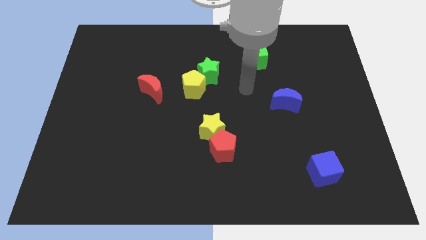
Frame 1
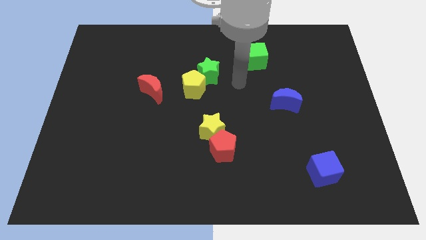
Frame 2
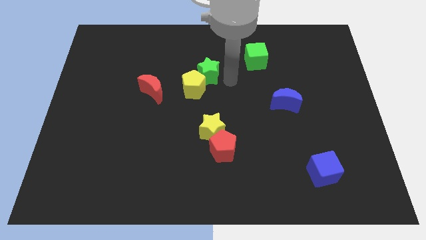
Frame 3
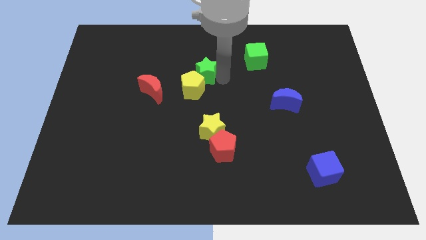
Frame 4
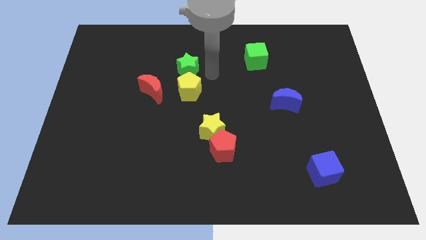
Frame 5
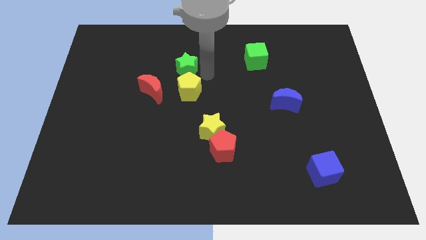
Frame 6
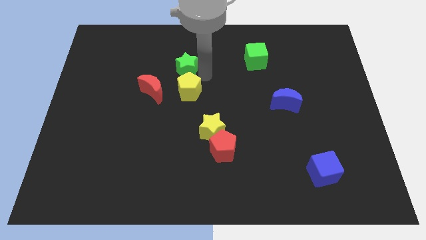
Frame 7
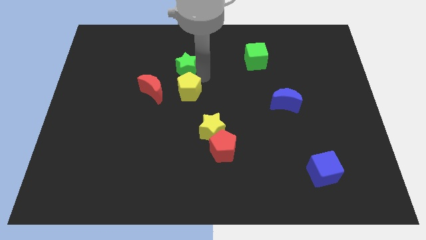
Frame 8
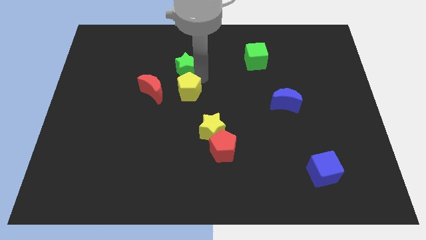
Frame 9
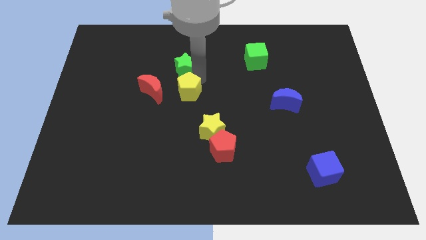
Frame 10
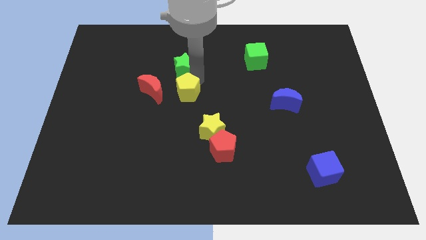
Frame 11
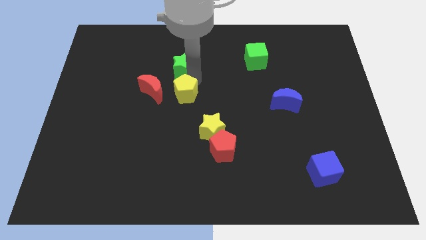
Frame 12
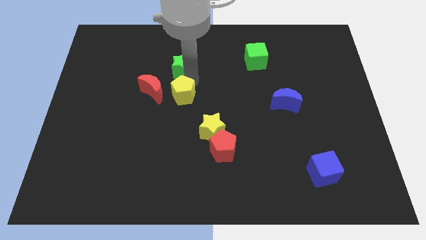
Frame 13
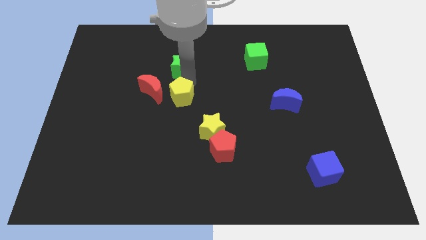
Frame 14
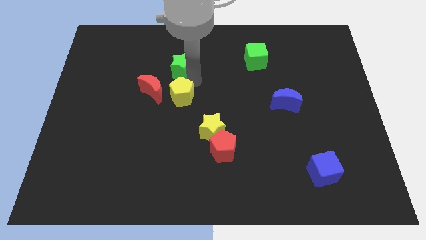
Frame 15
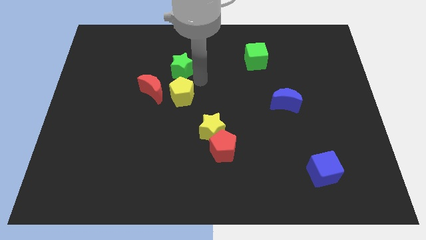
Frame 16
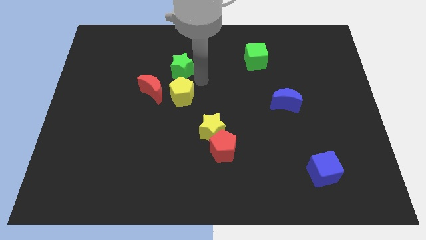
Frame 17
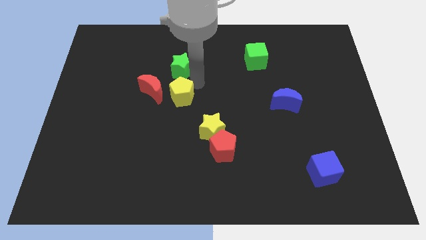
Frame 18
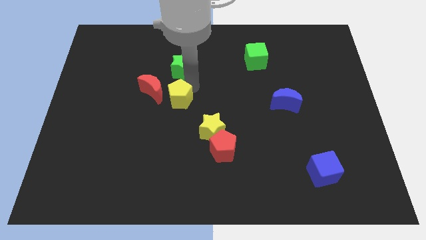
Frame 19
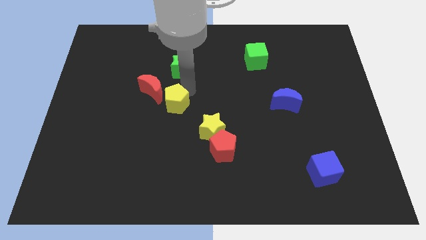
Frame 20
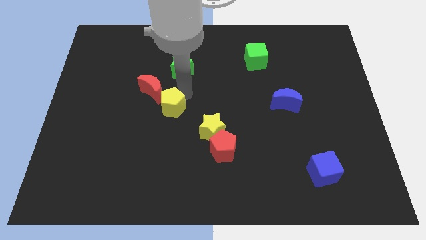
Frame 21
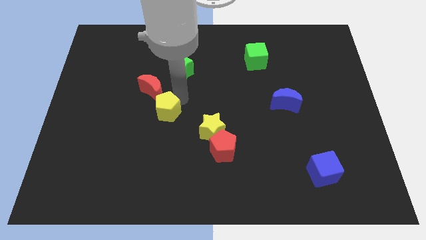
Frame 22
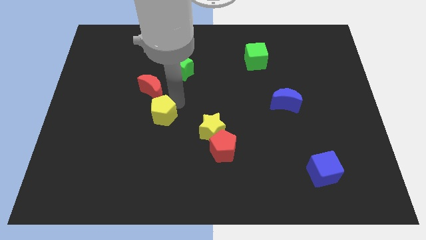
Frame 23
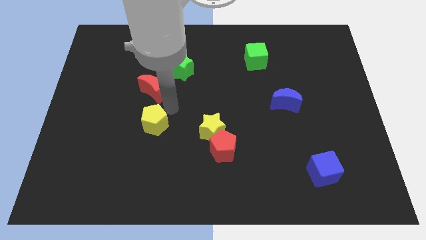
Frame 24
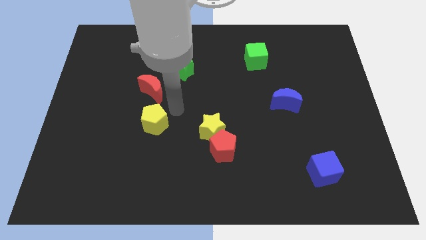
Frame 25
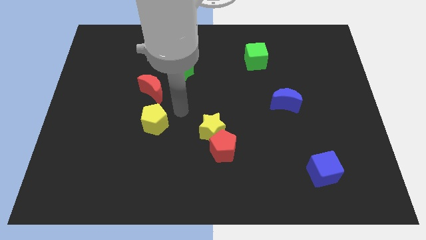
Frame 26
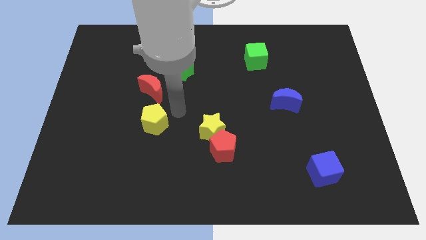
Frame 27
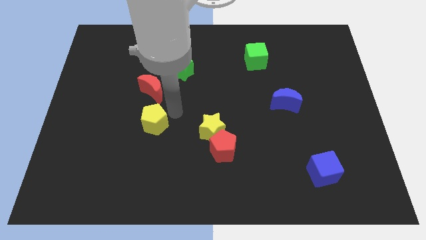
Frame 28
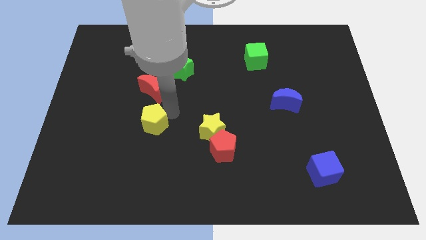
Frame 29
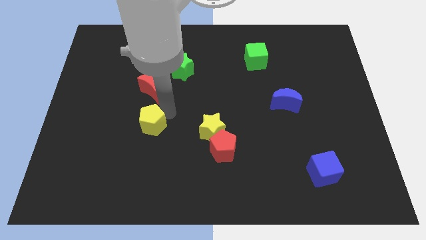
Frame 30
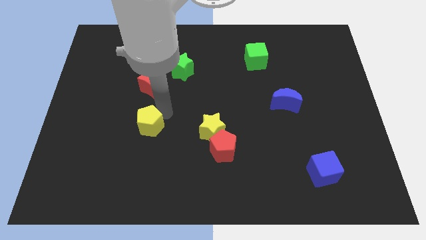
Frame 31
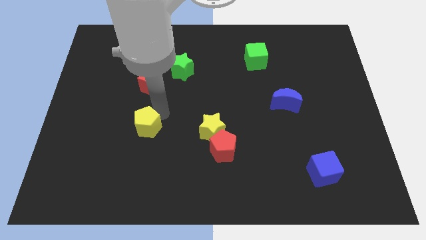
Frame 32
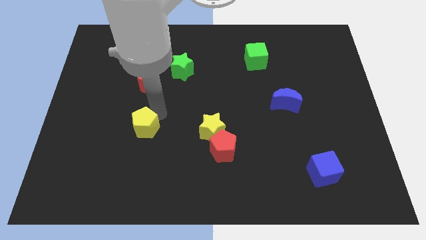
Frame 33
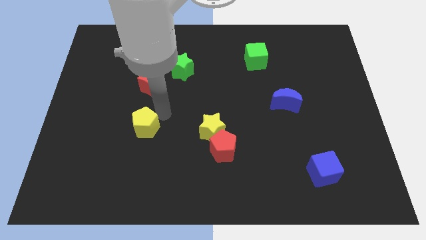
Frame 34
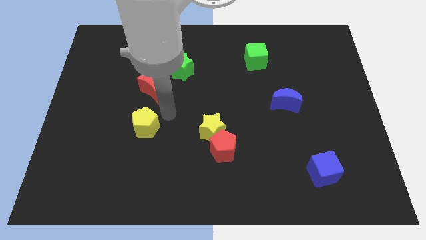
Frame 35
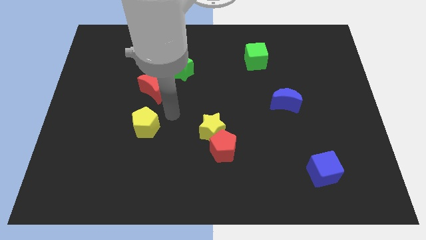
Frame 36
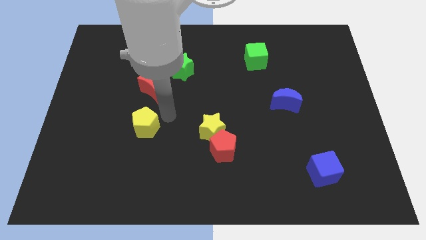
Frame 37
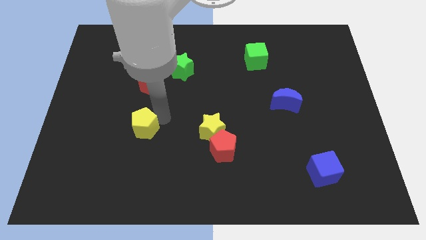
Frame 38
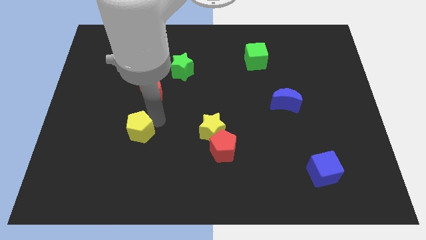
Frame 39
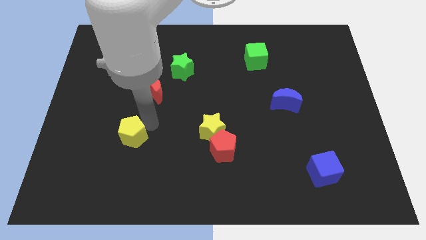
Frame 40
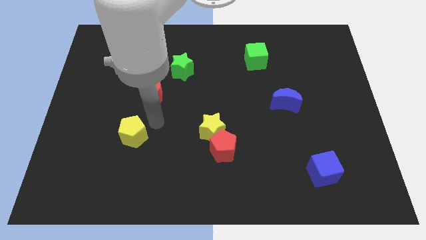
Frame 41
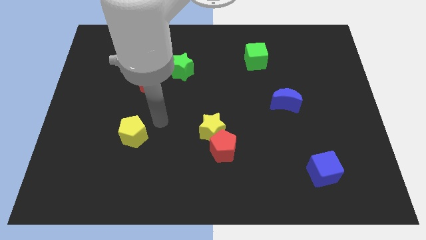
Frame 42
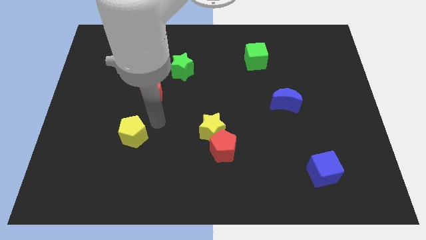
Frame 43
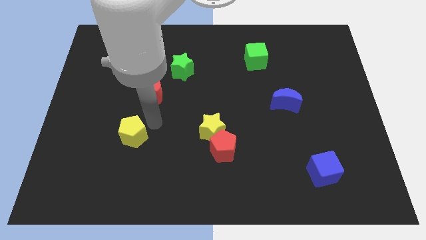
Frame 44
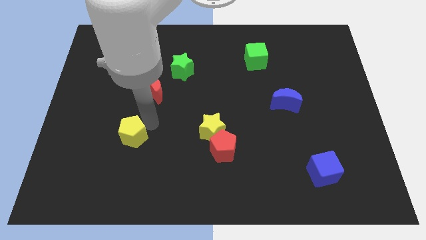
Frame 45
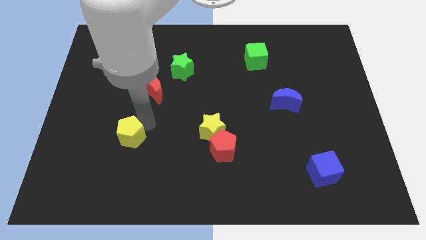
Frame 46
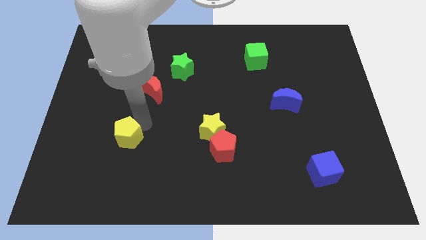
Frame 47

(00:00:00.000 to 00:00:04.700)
slide the yellow pentagon down and left diagonally

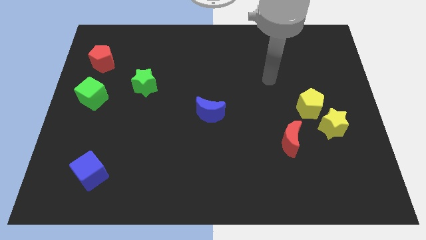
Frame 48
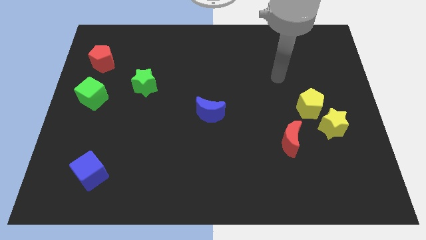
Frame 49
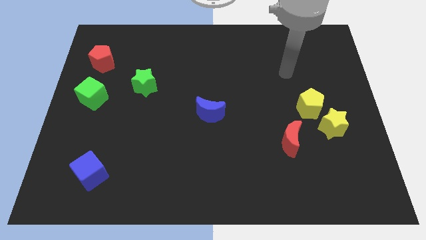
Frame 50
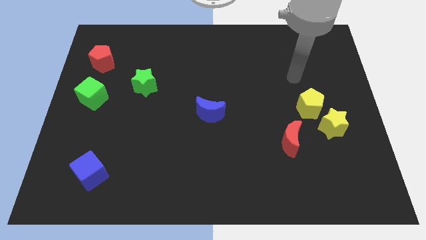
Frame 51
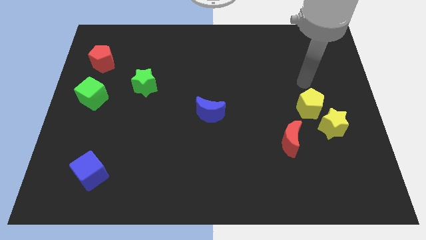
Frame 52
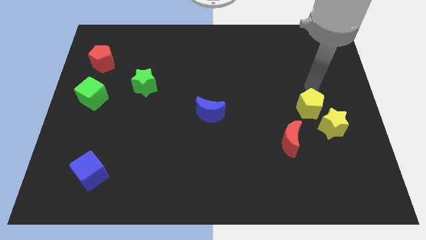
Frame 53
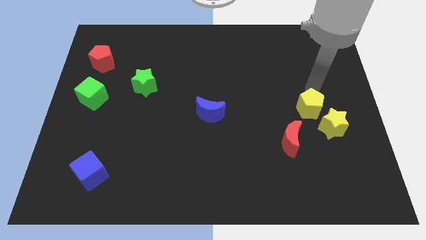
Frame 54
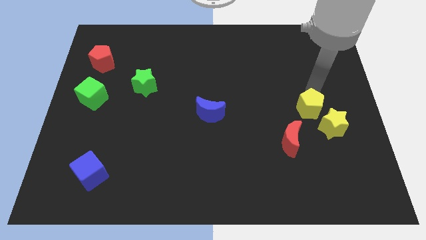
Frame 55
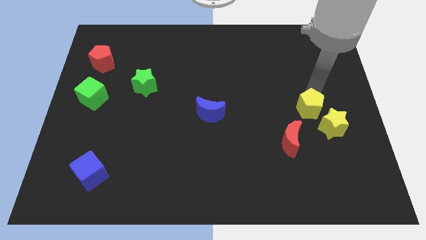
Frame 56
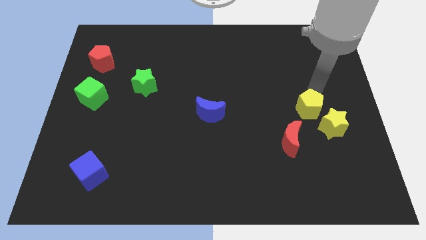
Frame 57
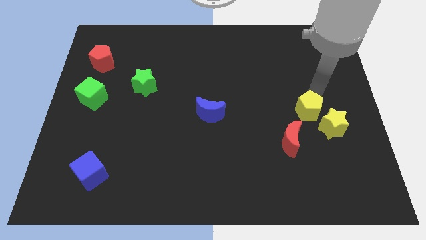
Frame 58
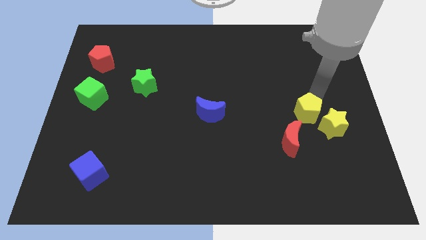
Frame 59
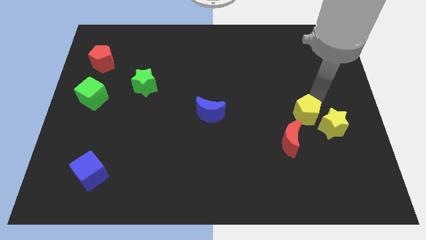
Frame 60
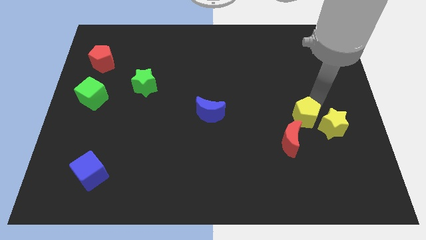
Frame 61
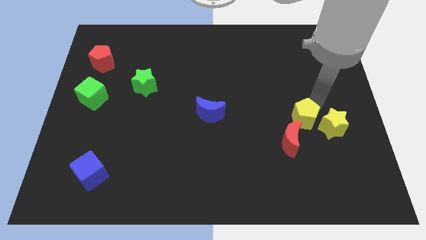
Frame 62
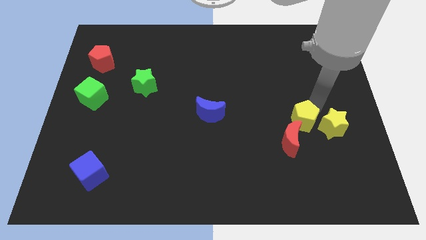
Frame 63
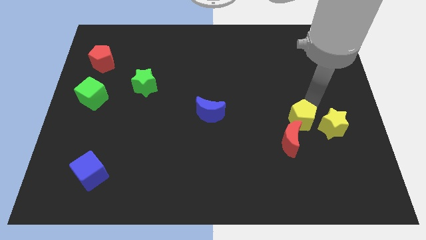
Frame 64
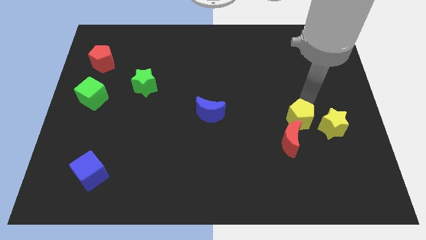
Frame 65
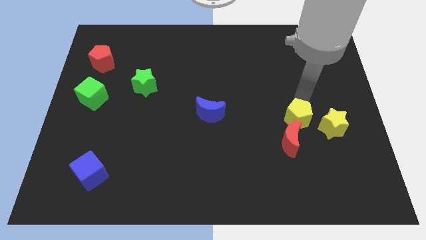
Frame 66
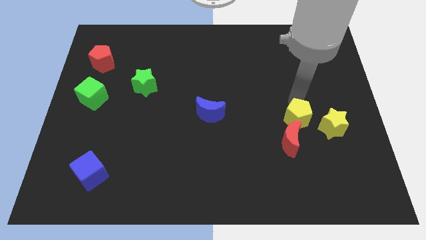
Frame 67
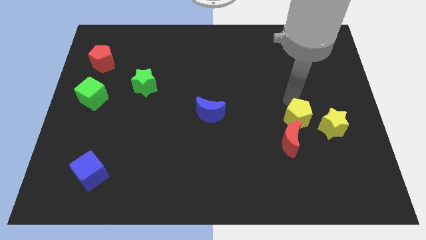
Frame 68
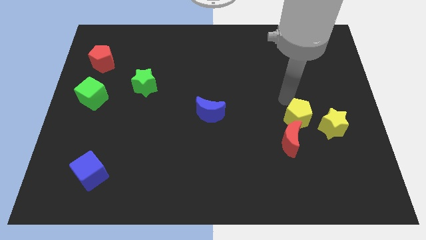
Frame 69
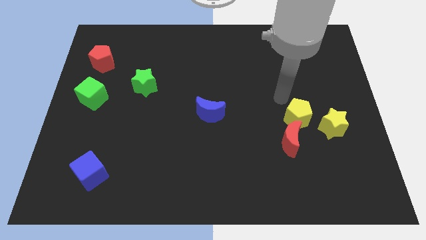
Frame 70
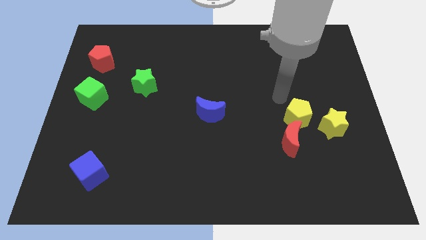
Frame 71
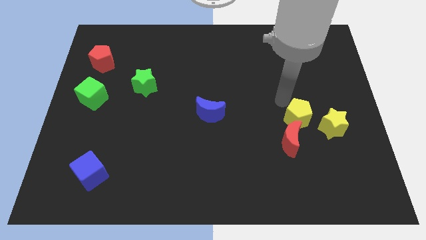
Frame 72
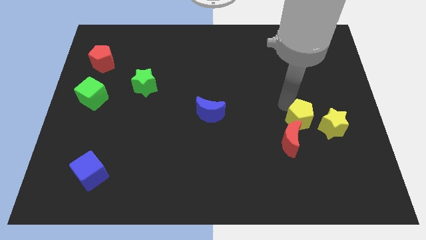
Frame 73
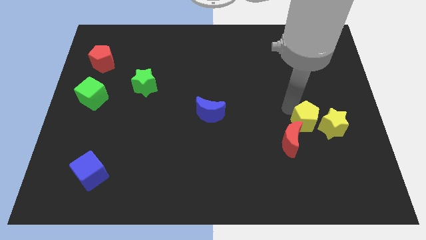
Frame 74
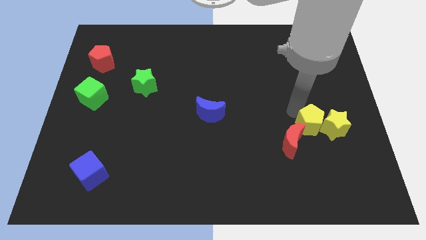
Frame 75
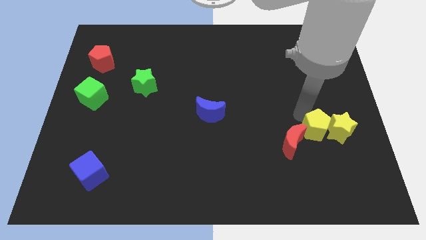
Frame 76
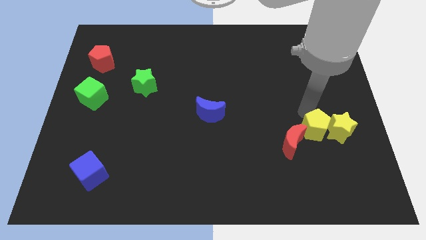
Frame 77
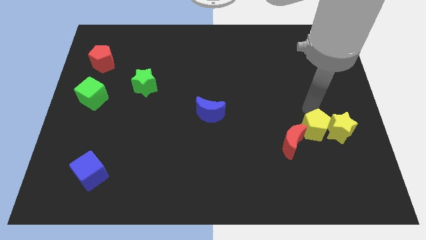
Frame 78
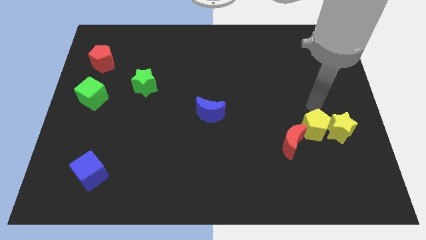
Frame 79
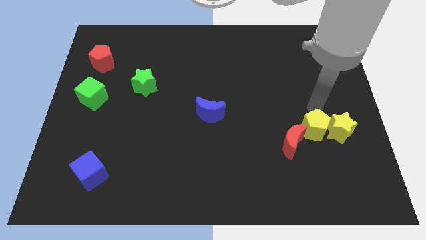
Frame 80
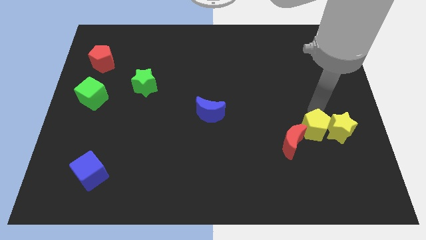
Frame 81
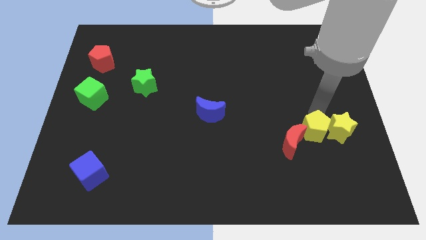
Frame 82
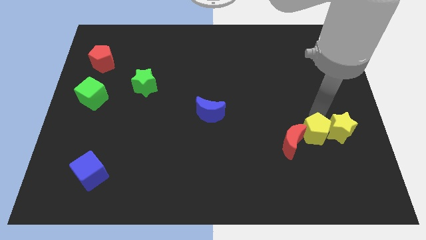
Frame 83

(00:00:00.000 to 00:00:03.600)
slide the yellow pentagon downwards a little bit
